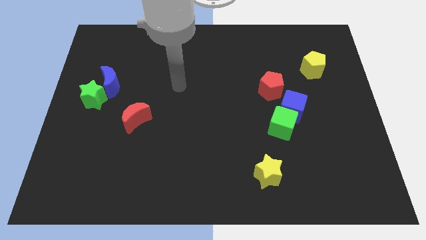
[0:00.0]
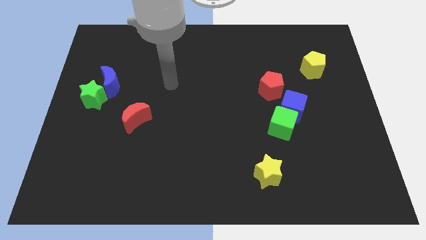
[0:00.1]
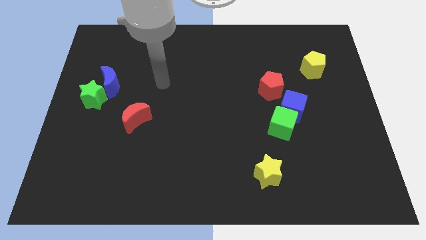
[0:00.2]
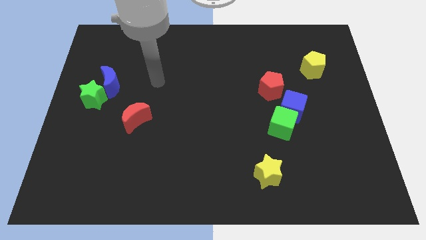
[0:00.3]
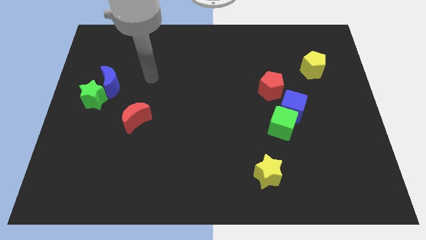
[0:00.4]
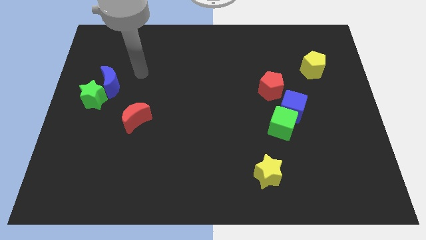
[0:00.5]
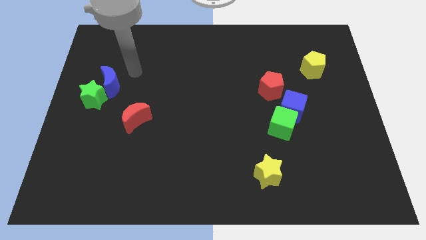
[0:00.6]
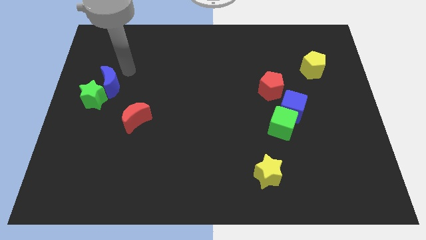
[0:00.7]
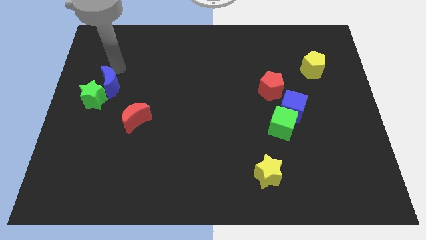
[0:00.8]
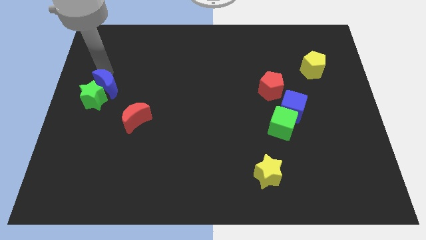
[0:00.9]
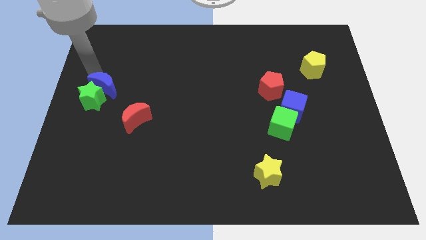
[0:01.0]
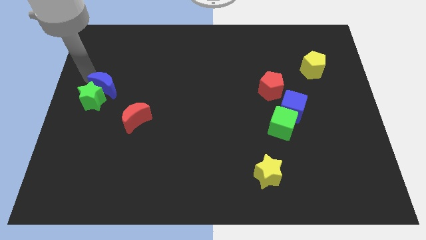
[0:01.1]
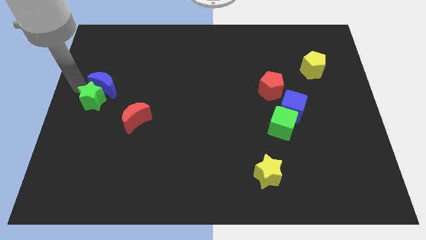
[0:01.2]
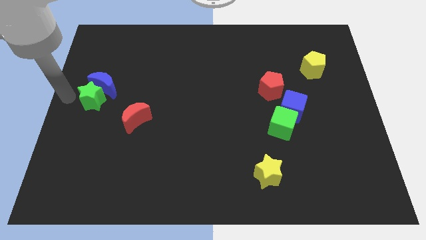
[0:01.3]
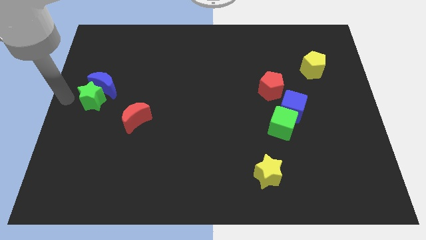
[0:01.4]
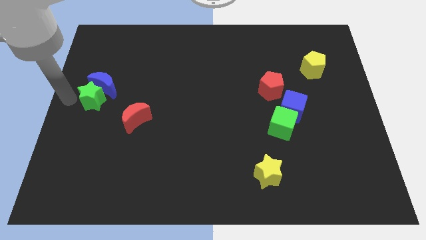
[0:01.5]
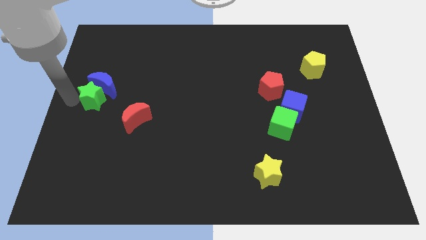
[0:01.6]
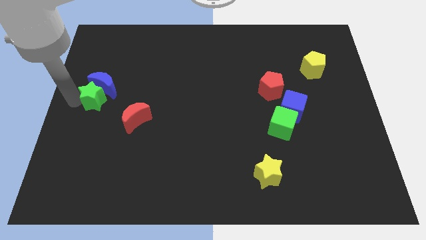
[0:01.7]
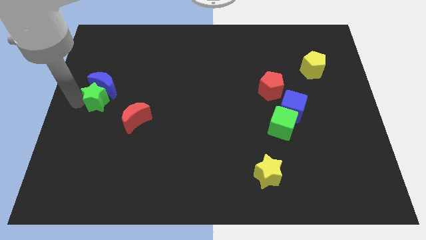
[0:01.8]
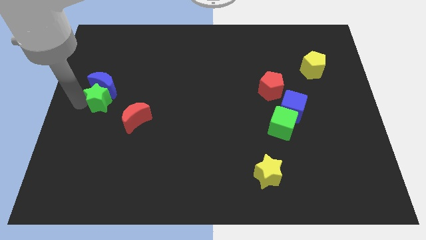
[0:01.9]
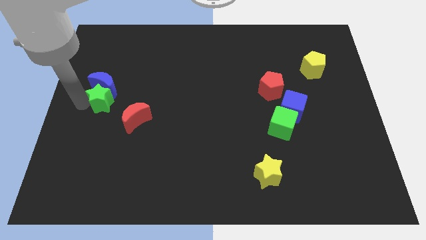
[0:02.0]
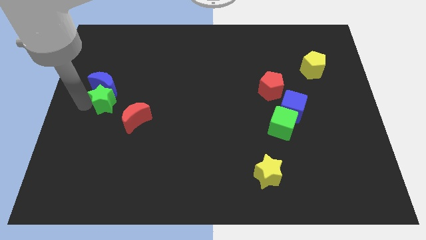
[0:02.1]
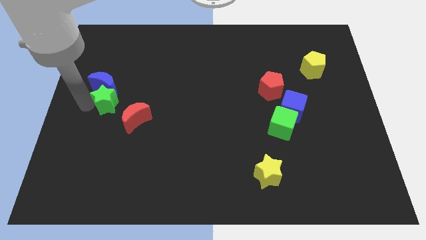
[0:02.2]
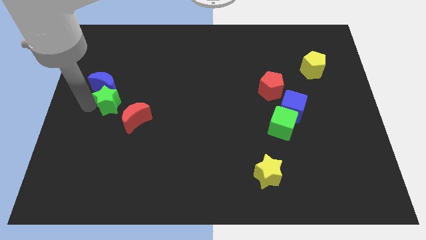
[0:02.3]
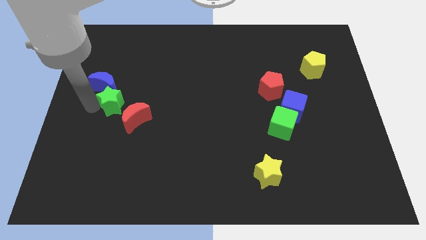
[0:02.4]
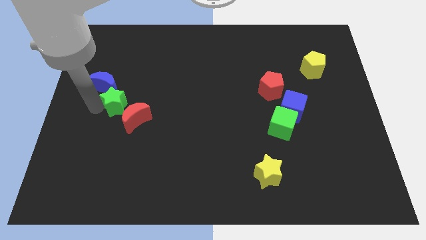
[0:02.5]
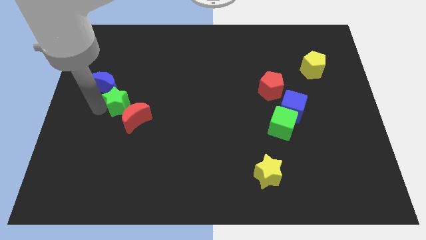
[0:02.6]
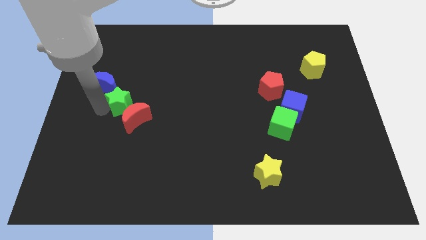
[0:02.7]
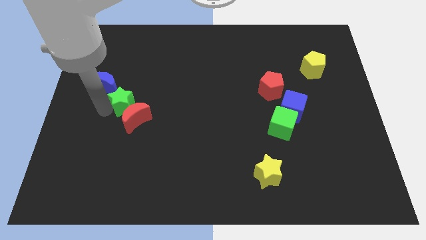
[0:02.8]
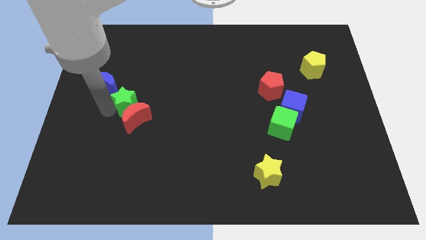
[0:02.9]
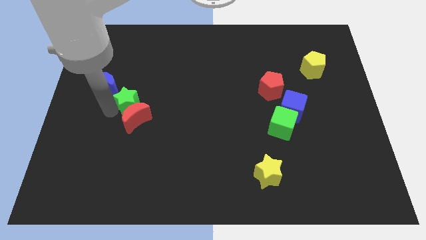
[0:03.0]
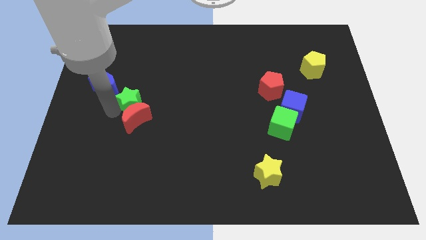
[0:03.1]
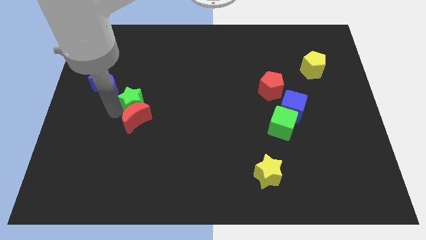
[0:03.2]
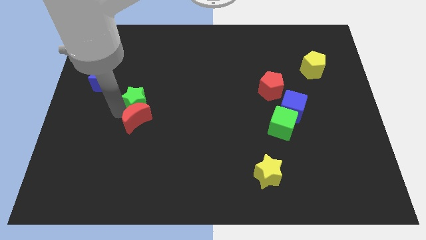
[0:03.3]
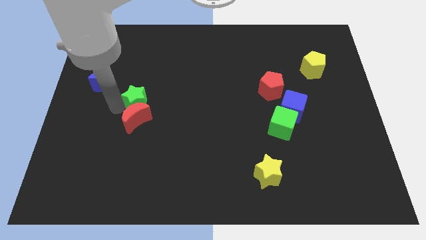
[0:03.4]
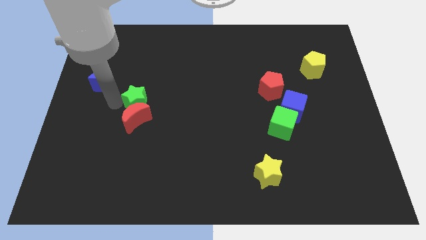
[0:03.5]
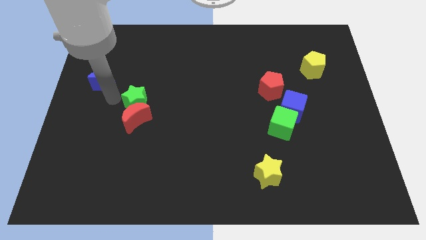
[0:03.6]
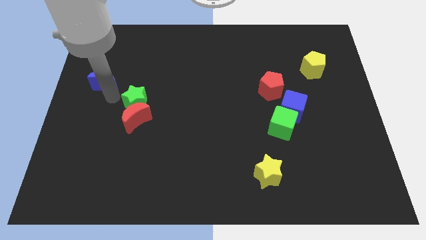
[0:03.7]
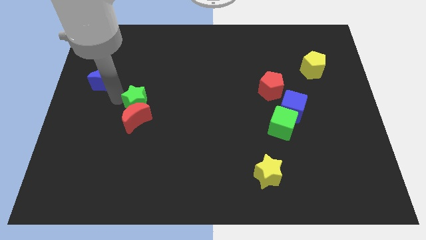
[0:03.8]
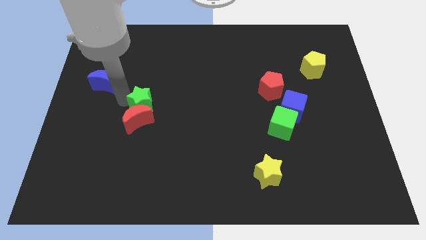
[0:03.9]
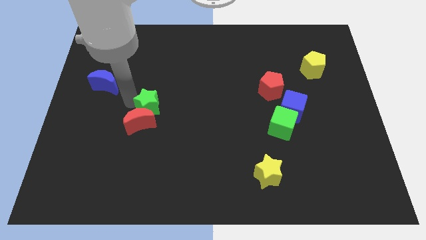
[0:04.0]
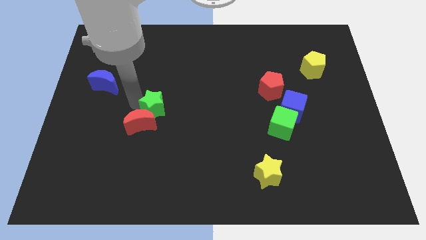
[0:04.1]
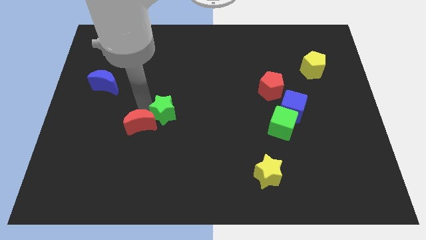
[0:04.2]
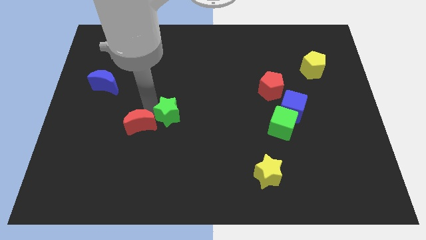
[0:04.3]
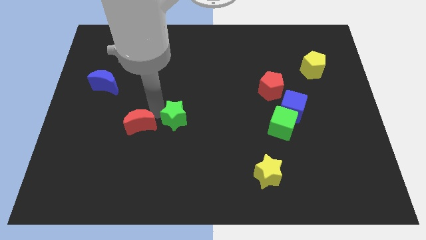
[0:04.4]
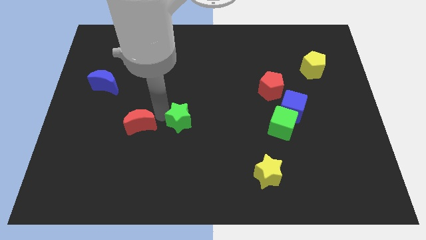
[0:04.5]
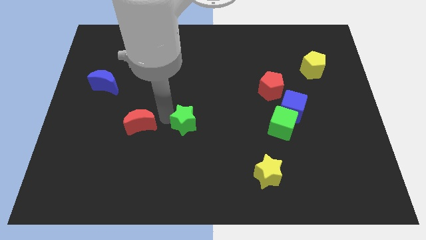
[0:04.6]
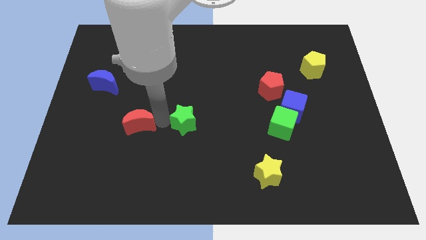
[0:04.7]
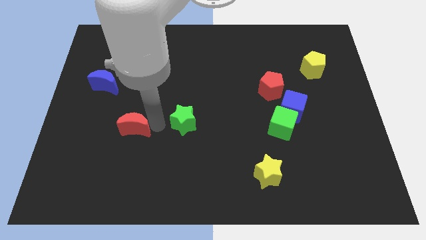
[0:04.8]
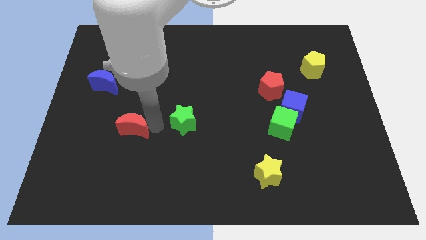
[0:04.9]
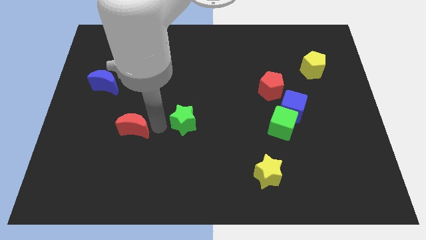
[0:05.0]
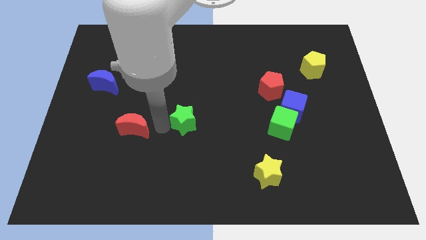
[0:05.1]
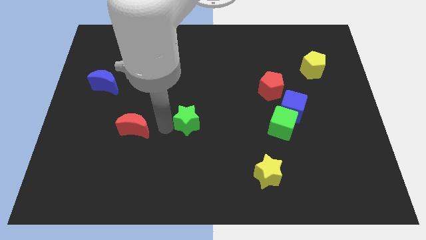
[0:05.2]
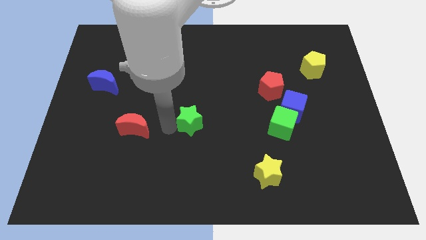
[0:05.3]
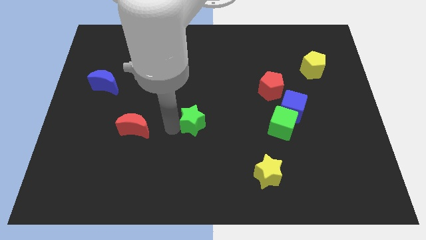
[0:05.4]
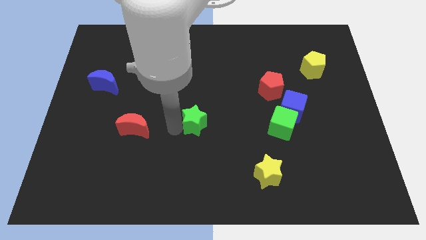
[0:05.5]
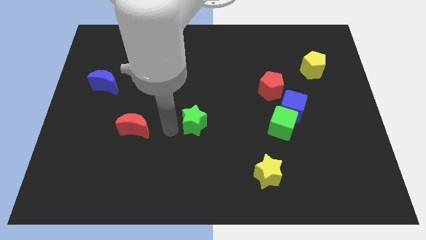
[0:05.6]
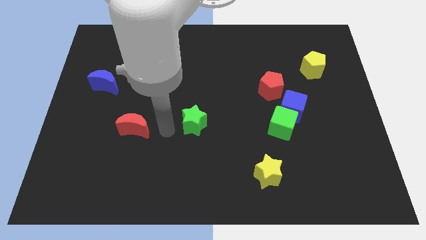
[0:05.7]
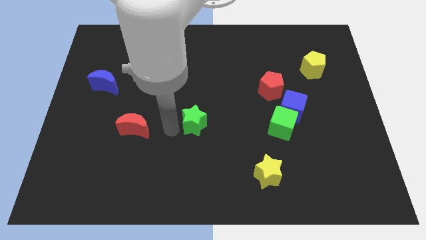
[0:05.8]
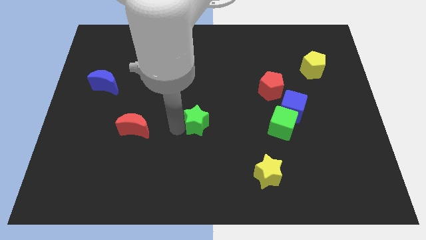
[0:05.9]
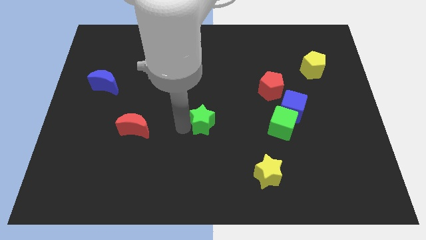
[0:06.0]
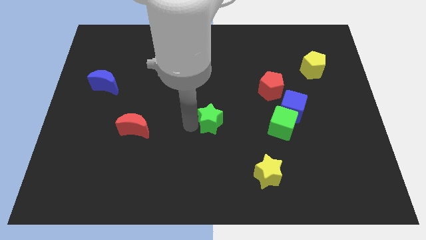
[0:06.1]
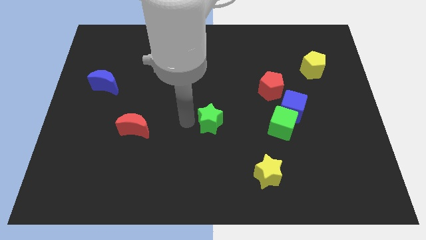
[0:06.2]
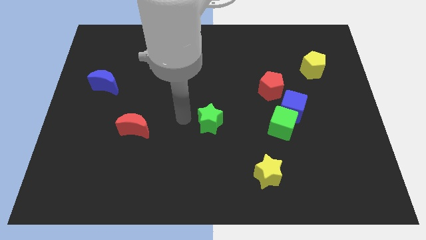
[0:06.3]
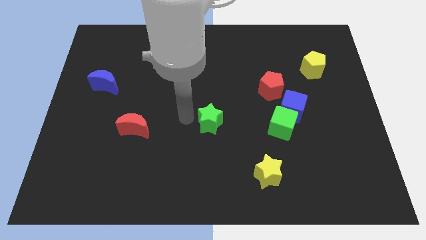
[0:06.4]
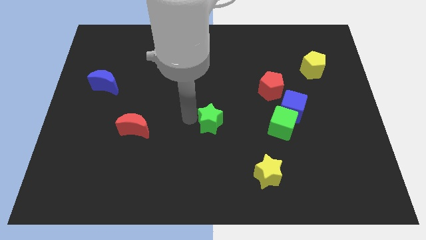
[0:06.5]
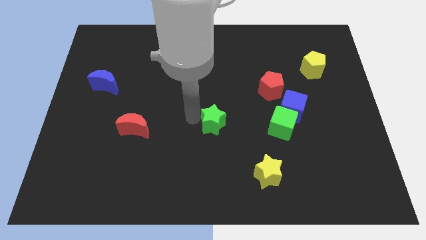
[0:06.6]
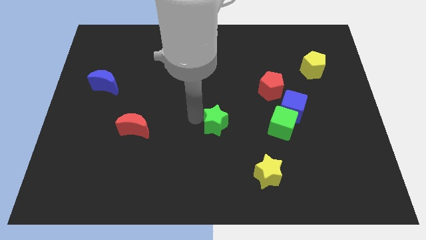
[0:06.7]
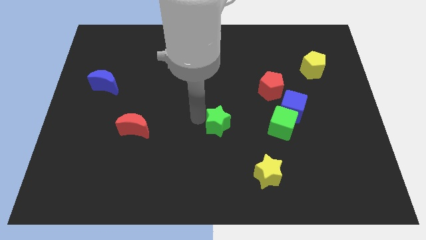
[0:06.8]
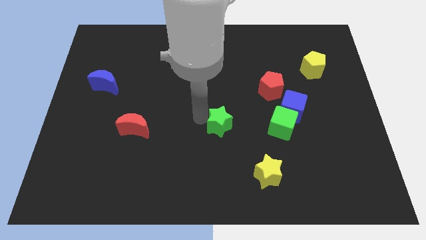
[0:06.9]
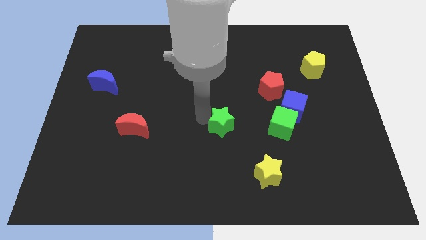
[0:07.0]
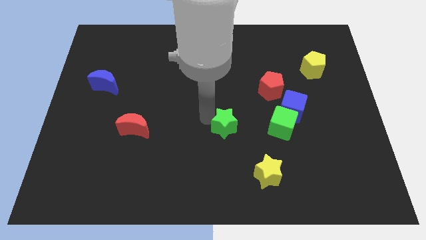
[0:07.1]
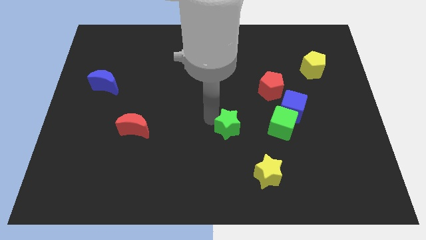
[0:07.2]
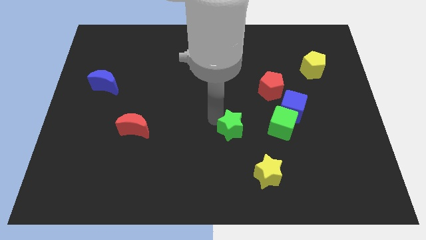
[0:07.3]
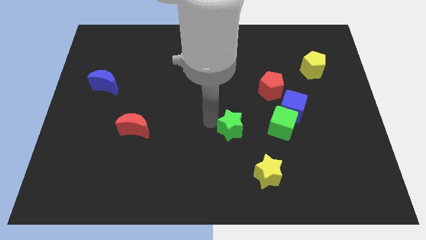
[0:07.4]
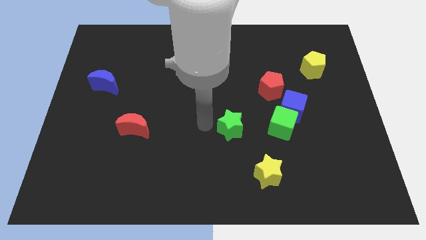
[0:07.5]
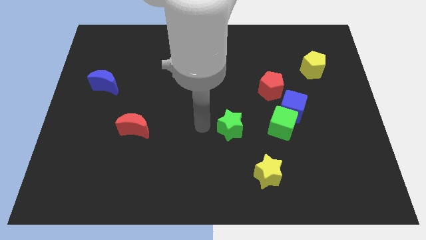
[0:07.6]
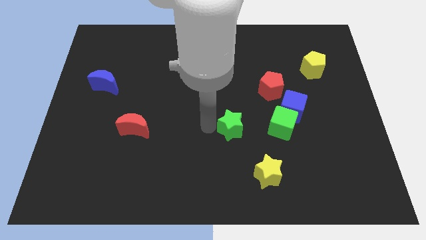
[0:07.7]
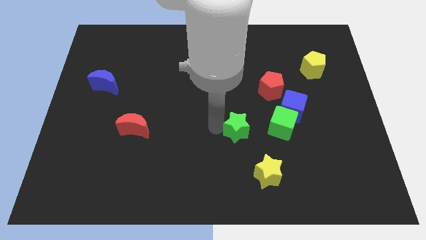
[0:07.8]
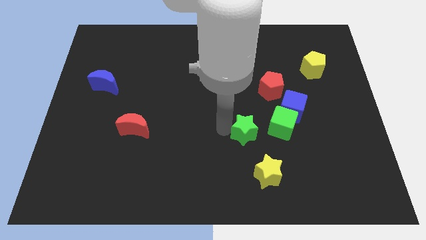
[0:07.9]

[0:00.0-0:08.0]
push the green star above the yellow star
